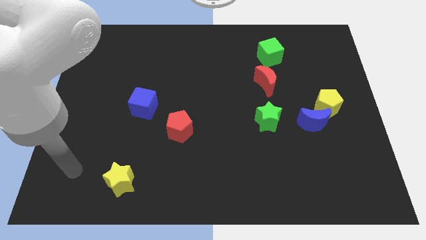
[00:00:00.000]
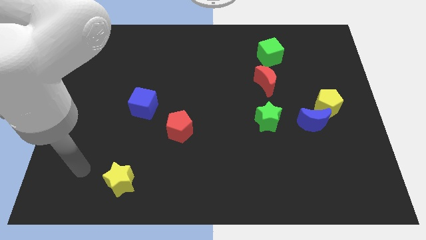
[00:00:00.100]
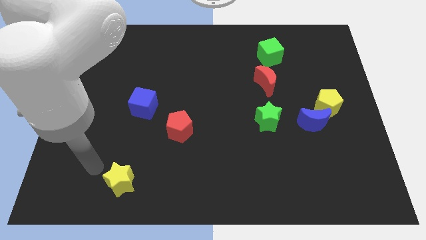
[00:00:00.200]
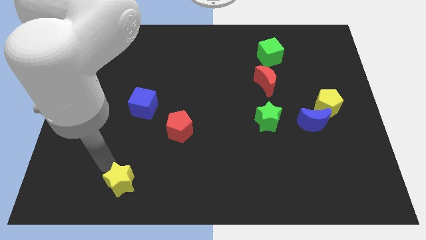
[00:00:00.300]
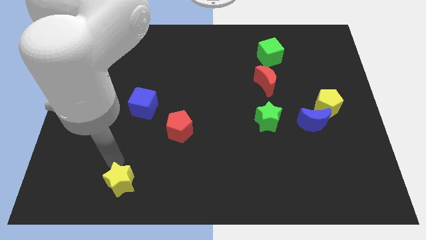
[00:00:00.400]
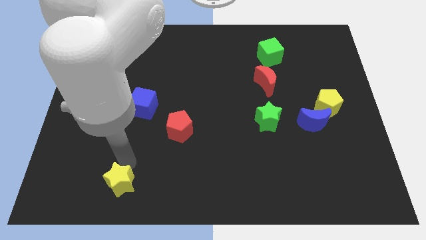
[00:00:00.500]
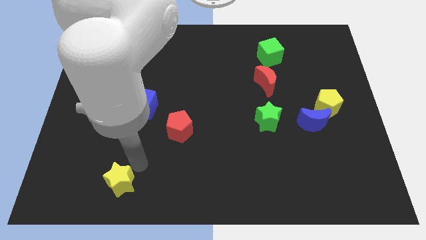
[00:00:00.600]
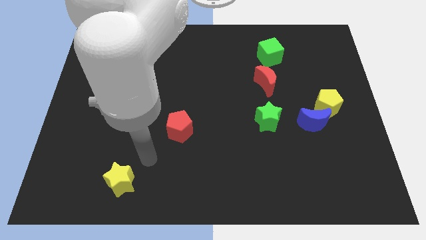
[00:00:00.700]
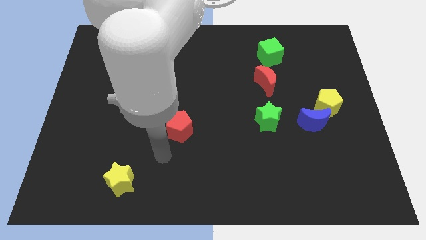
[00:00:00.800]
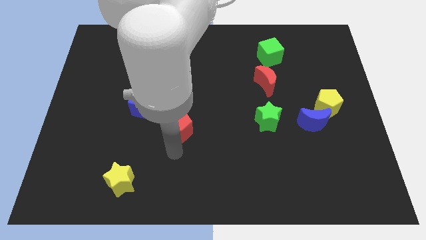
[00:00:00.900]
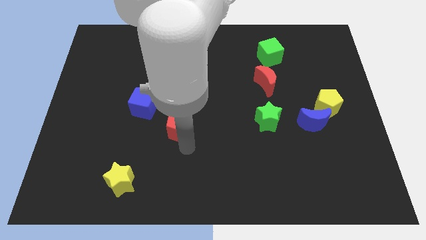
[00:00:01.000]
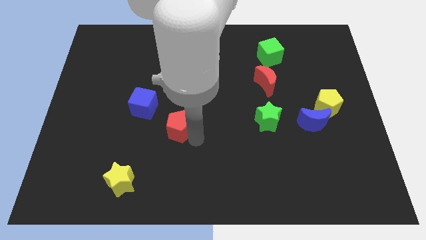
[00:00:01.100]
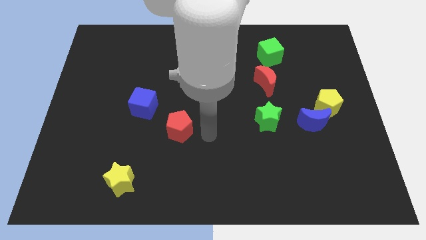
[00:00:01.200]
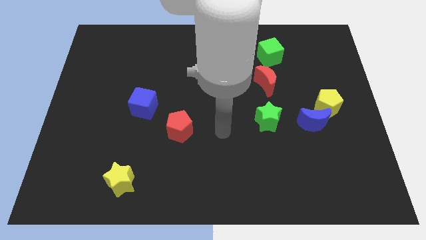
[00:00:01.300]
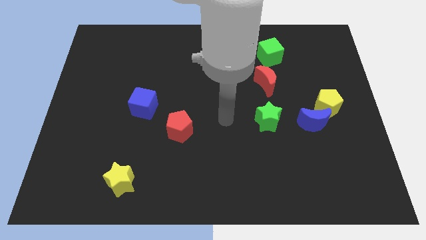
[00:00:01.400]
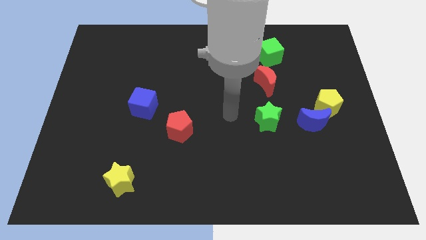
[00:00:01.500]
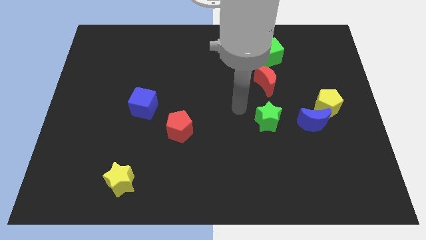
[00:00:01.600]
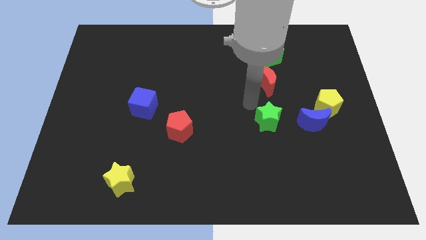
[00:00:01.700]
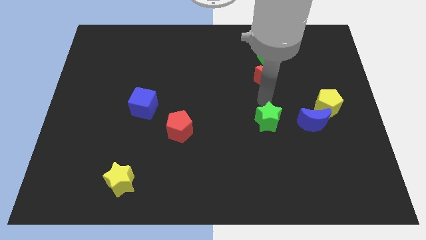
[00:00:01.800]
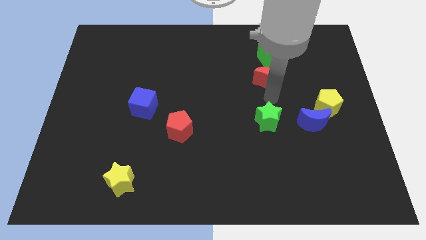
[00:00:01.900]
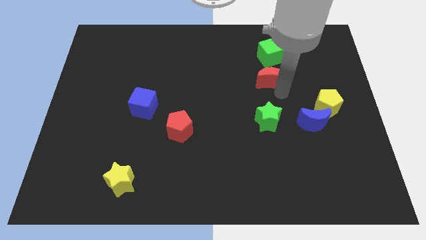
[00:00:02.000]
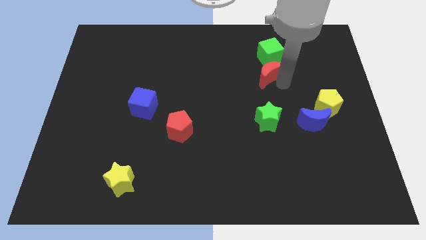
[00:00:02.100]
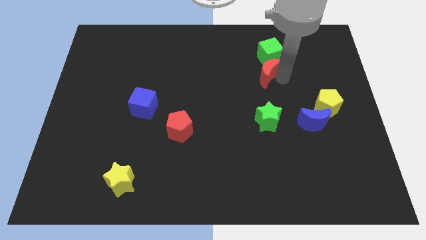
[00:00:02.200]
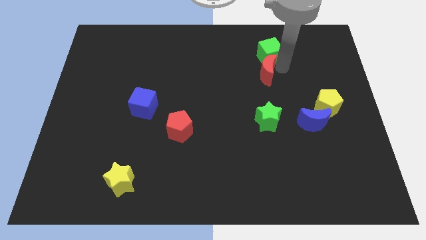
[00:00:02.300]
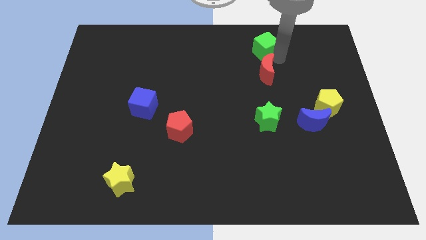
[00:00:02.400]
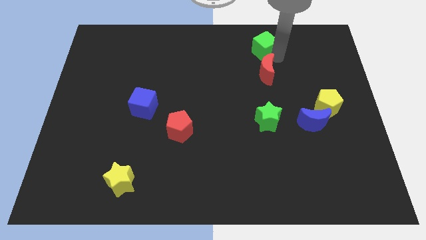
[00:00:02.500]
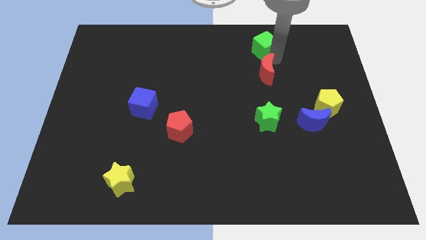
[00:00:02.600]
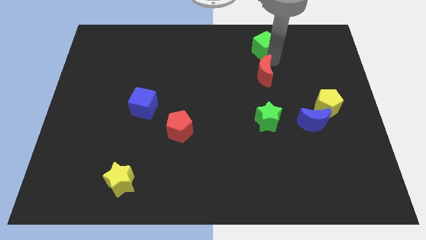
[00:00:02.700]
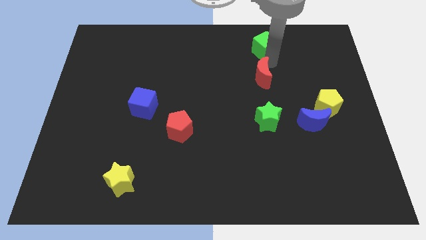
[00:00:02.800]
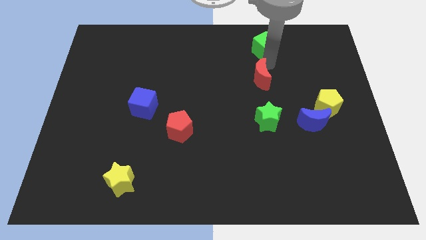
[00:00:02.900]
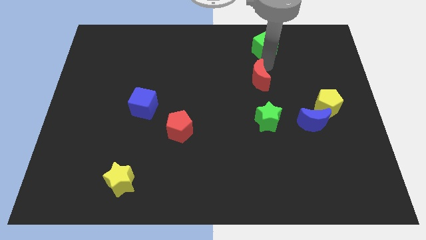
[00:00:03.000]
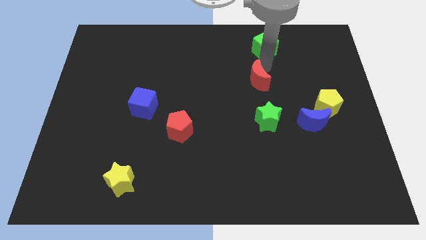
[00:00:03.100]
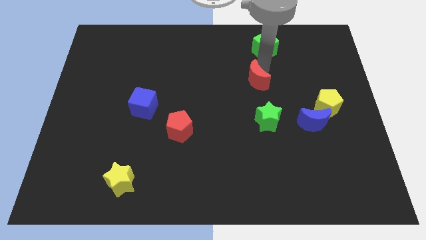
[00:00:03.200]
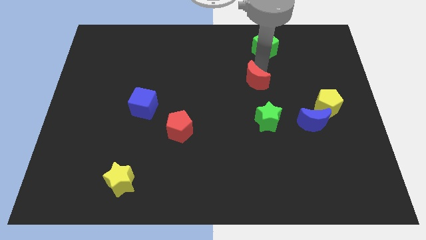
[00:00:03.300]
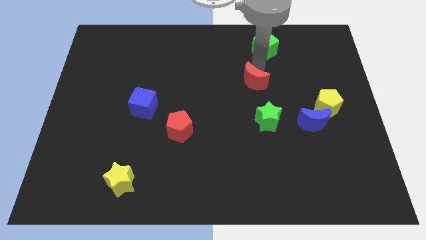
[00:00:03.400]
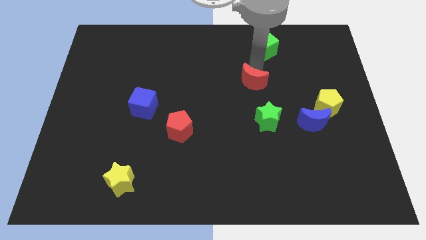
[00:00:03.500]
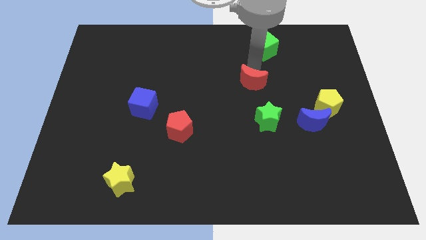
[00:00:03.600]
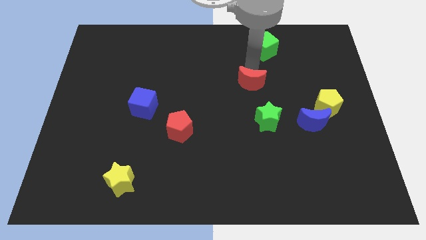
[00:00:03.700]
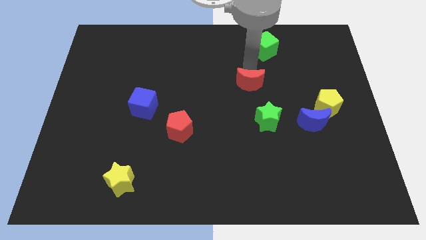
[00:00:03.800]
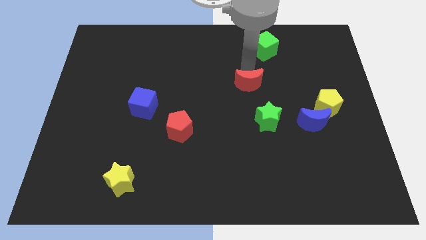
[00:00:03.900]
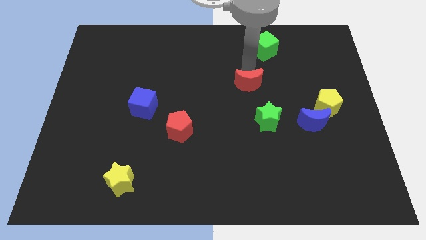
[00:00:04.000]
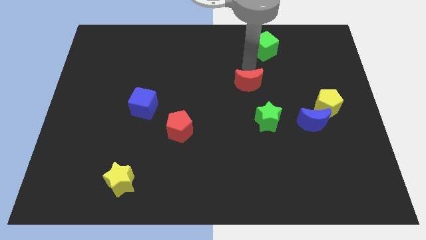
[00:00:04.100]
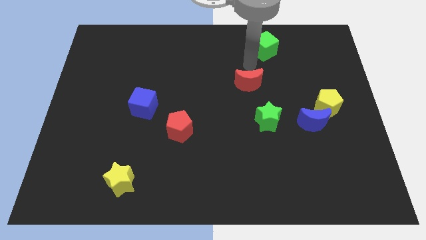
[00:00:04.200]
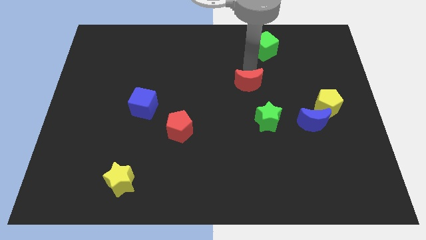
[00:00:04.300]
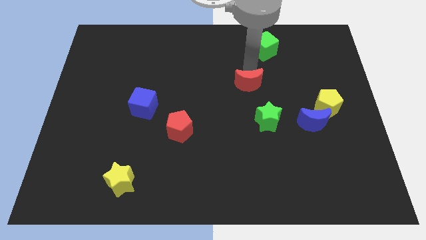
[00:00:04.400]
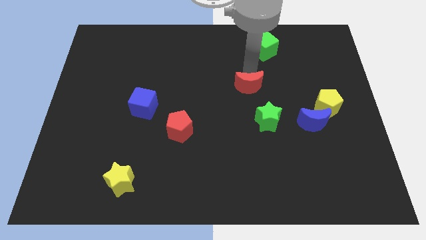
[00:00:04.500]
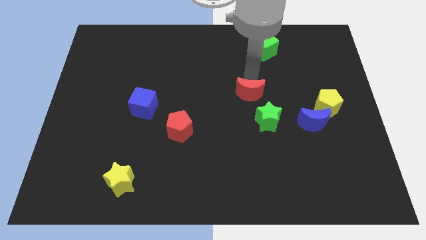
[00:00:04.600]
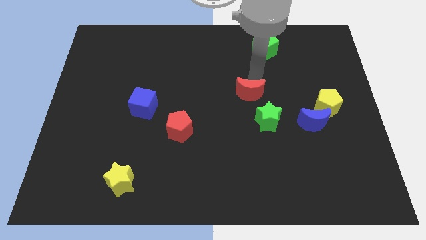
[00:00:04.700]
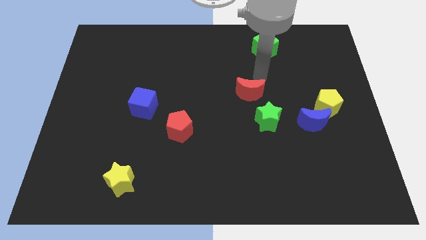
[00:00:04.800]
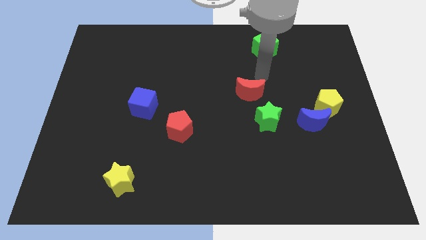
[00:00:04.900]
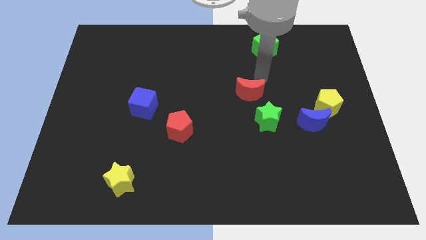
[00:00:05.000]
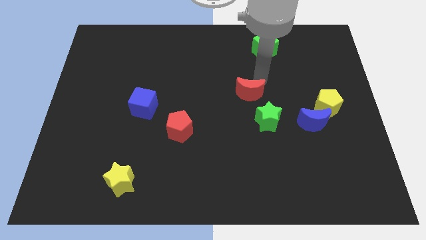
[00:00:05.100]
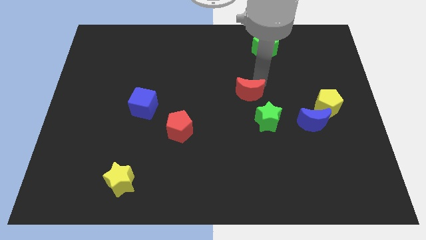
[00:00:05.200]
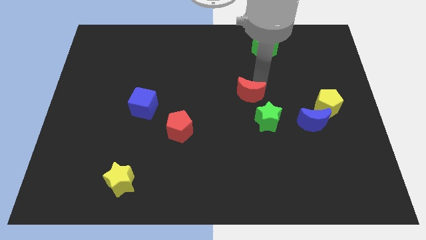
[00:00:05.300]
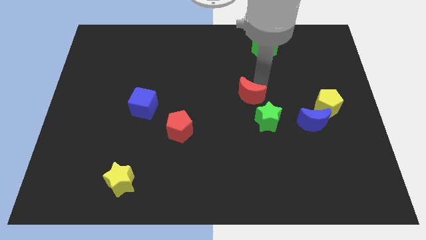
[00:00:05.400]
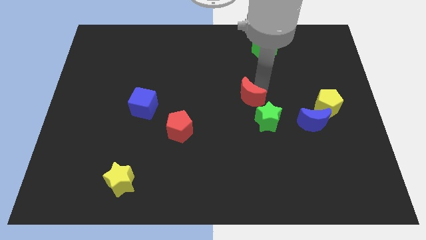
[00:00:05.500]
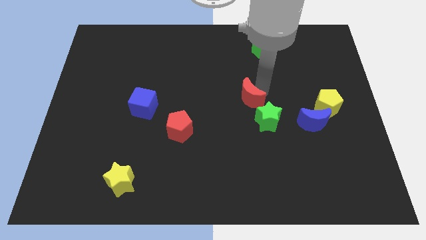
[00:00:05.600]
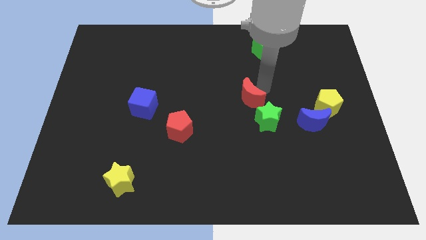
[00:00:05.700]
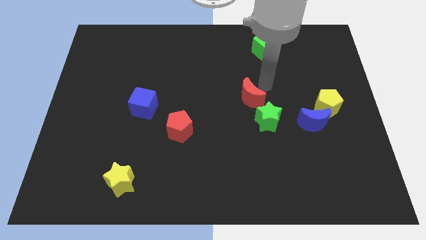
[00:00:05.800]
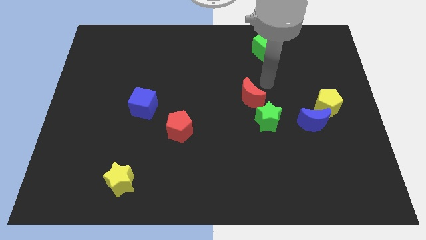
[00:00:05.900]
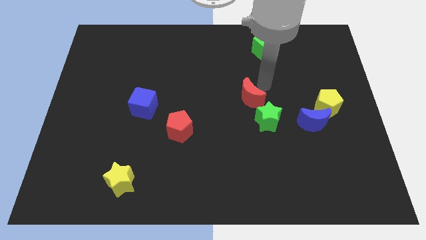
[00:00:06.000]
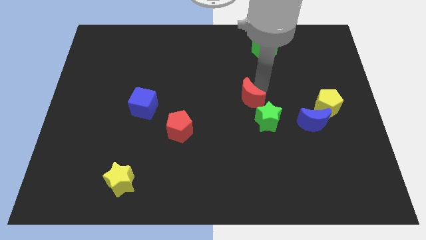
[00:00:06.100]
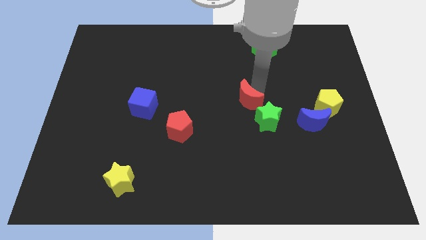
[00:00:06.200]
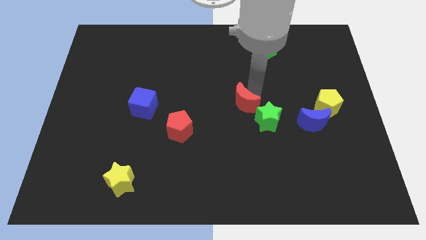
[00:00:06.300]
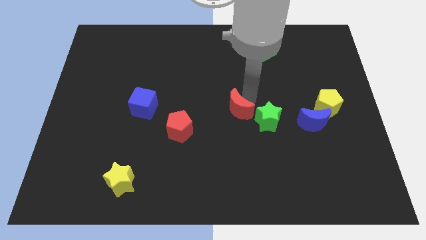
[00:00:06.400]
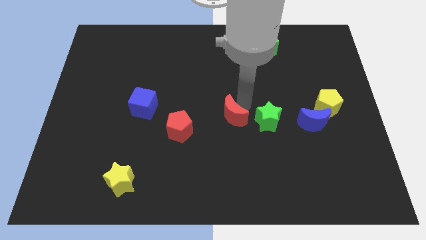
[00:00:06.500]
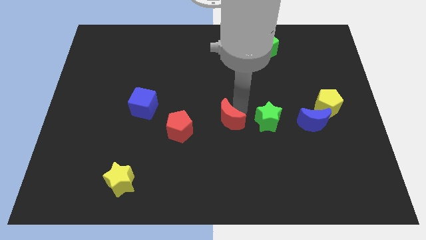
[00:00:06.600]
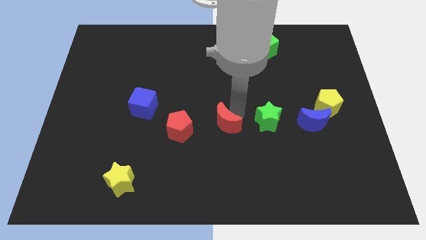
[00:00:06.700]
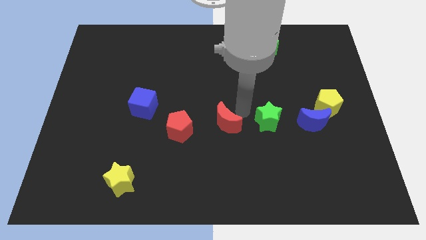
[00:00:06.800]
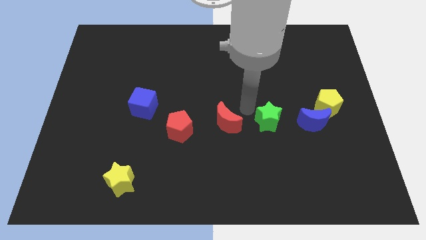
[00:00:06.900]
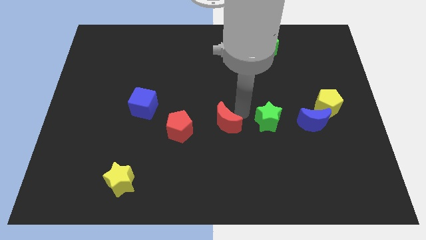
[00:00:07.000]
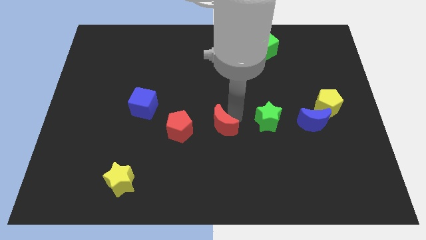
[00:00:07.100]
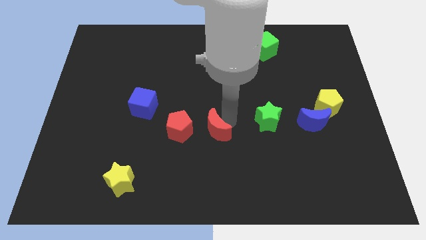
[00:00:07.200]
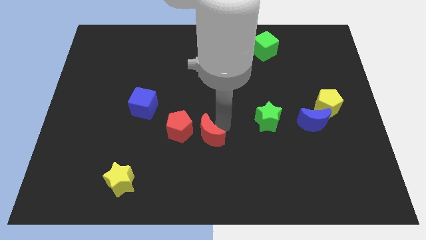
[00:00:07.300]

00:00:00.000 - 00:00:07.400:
move the red moon downwards and then left

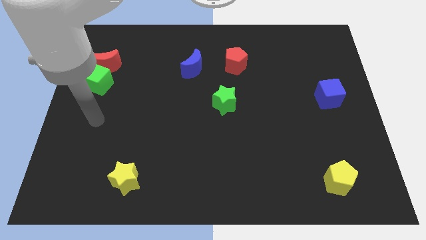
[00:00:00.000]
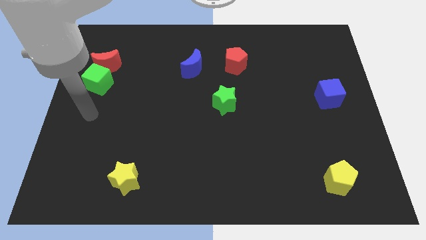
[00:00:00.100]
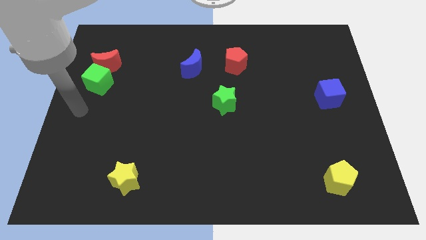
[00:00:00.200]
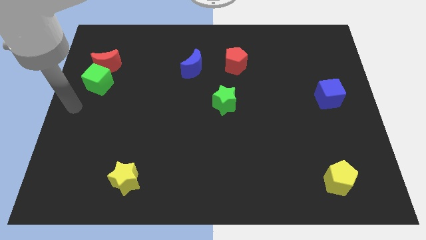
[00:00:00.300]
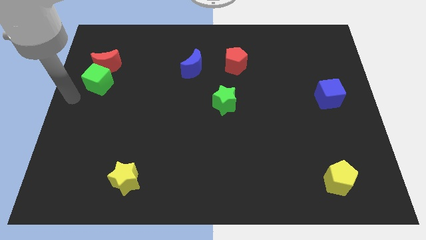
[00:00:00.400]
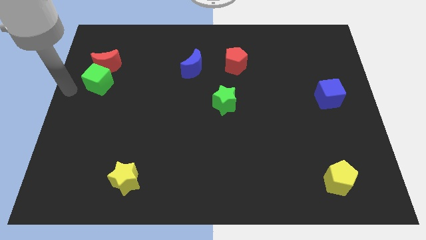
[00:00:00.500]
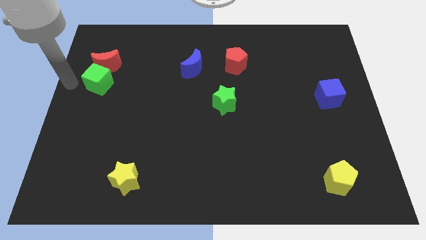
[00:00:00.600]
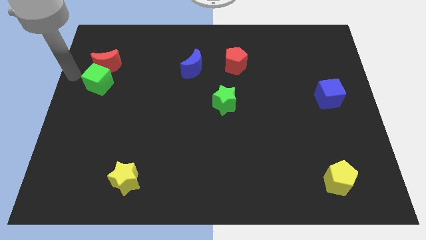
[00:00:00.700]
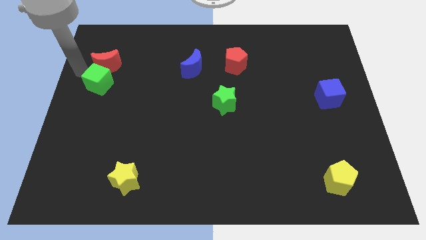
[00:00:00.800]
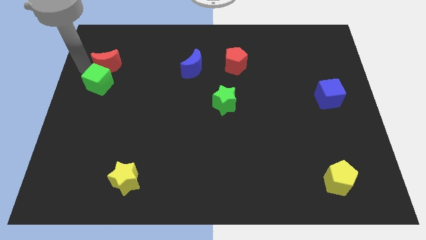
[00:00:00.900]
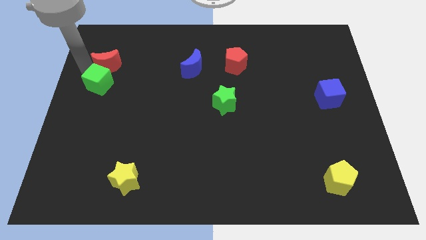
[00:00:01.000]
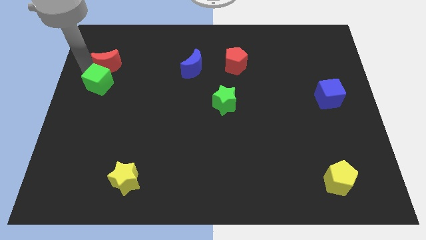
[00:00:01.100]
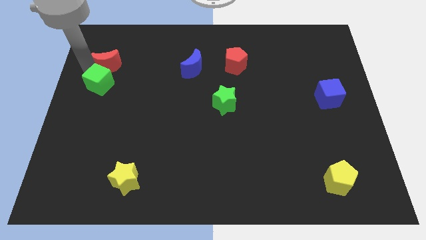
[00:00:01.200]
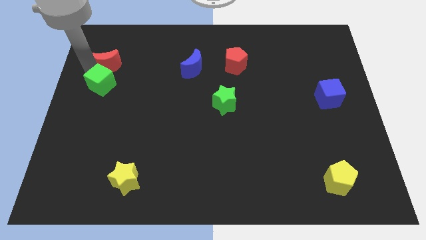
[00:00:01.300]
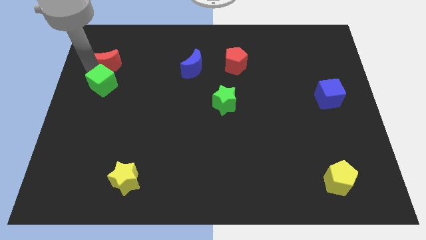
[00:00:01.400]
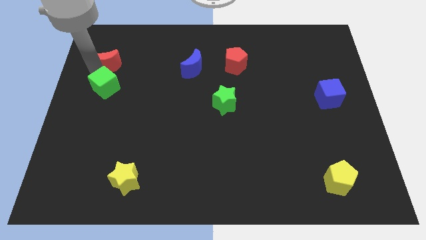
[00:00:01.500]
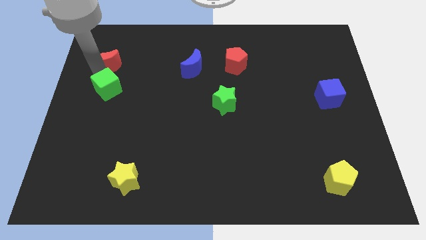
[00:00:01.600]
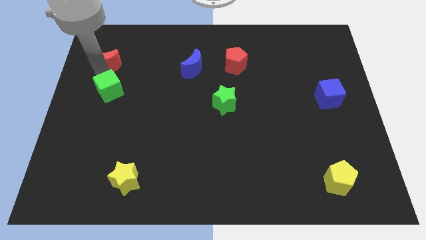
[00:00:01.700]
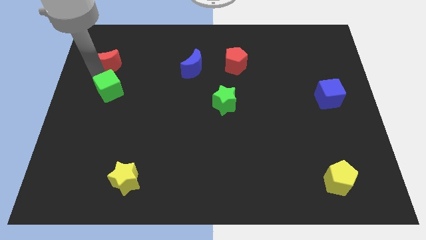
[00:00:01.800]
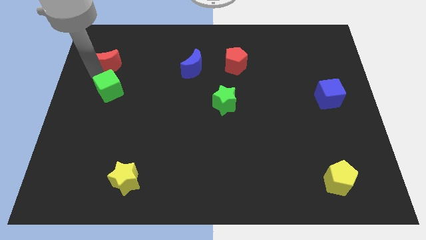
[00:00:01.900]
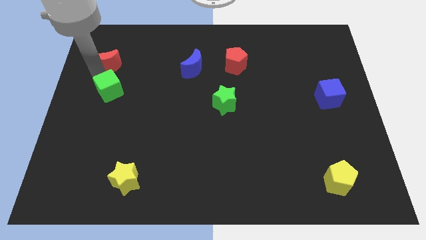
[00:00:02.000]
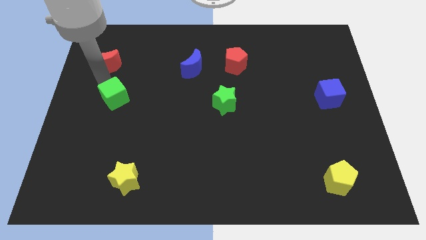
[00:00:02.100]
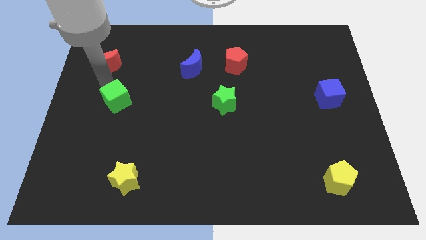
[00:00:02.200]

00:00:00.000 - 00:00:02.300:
move the green cube somewhat downwards and then right
